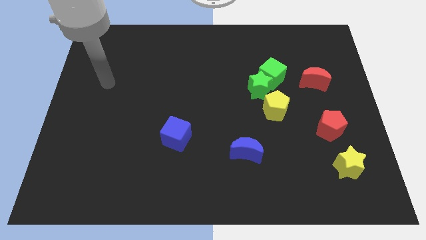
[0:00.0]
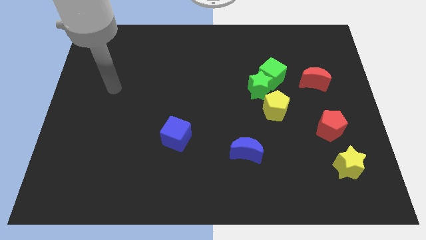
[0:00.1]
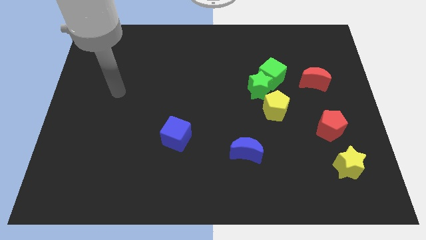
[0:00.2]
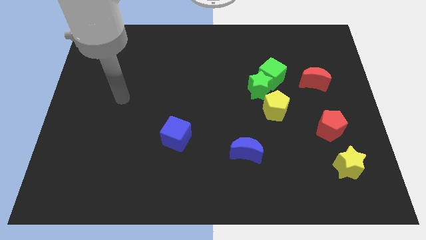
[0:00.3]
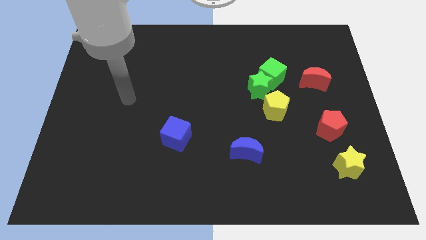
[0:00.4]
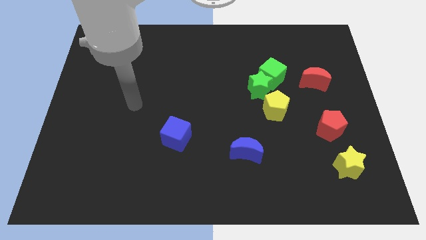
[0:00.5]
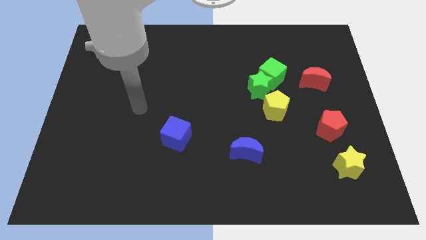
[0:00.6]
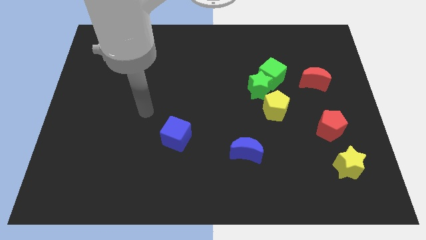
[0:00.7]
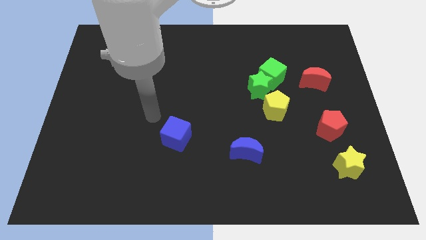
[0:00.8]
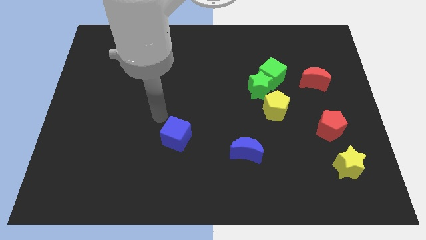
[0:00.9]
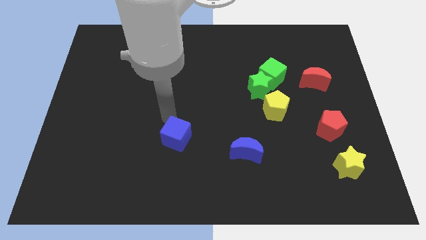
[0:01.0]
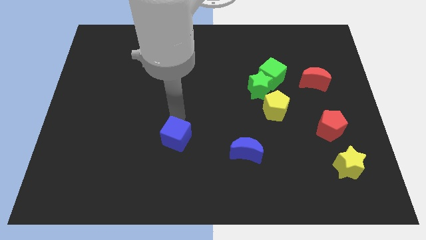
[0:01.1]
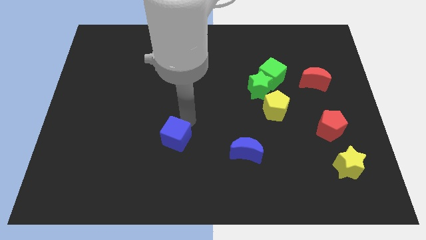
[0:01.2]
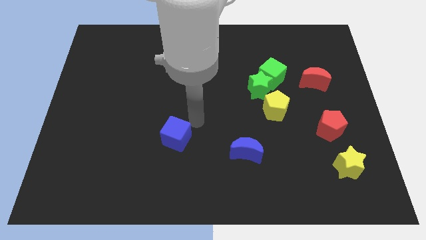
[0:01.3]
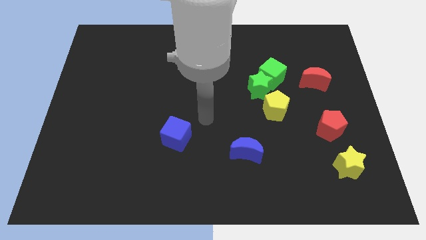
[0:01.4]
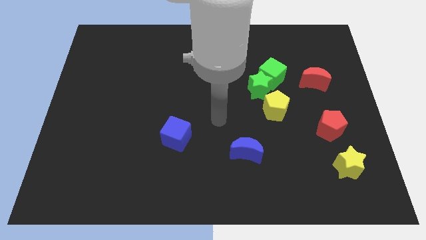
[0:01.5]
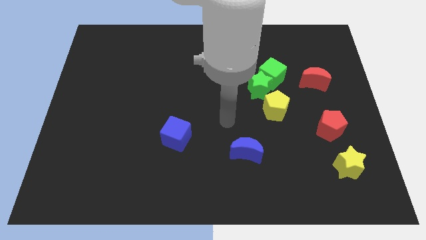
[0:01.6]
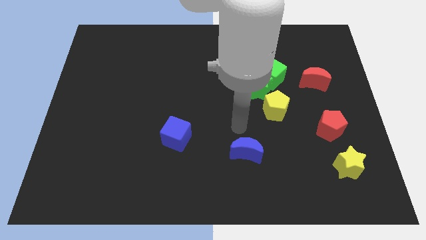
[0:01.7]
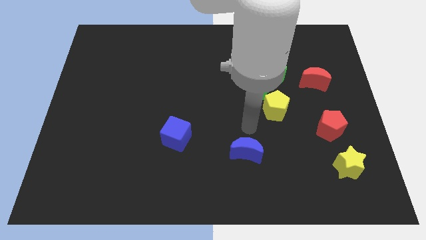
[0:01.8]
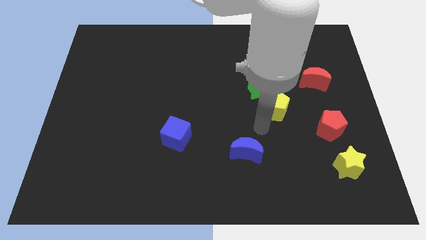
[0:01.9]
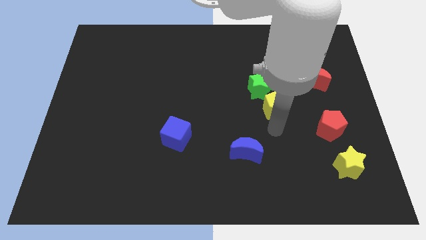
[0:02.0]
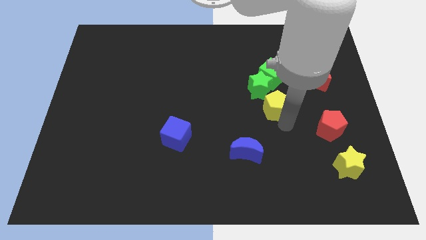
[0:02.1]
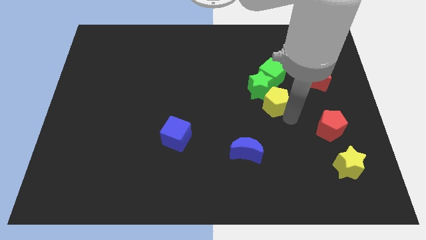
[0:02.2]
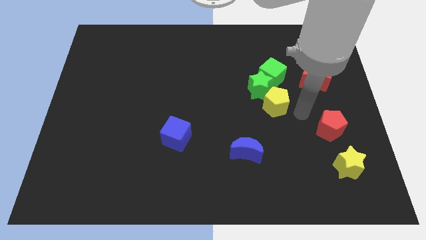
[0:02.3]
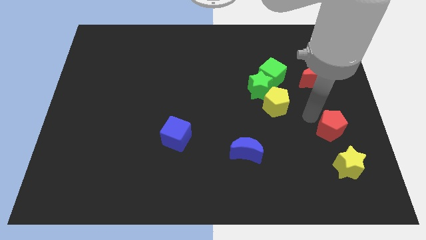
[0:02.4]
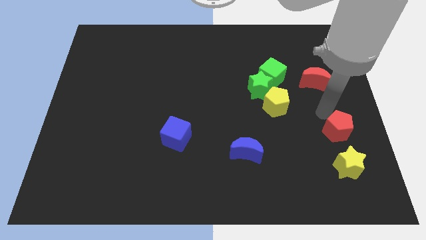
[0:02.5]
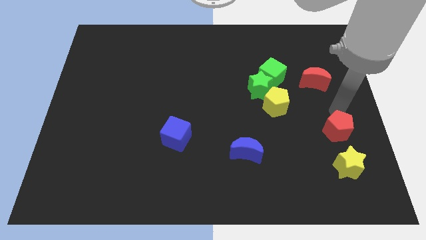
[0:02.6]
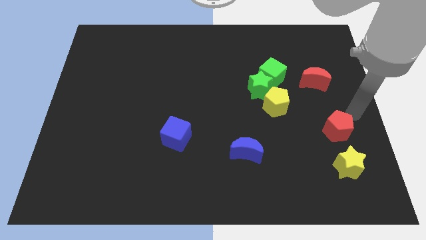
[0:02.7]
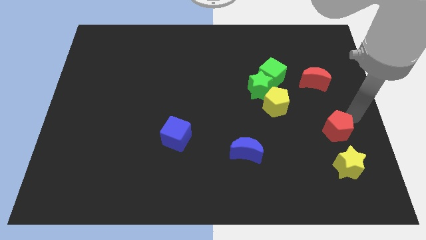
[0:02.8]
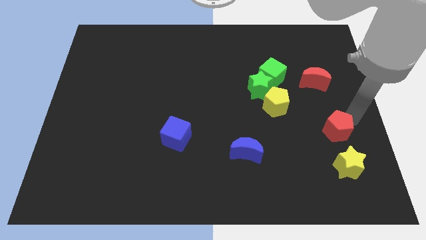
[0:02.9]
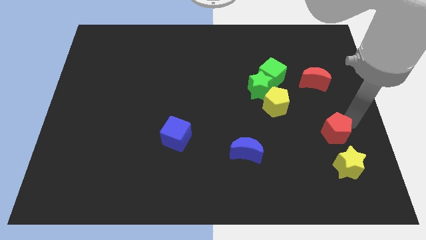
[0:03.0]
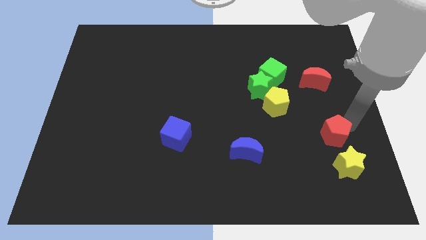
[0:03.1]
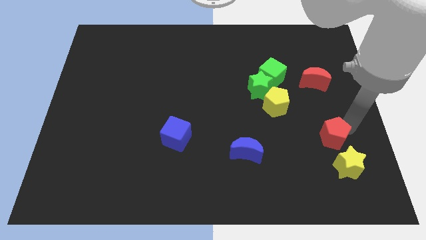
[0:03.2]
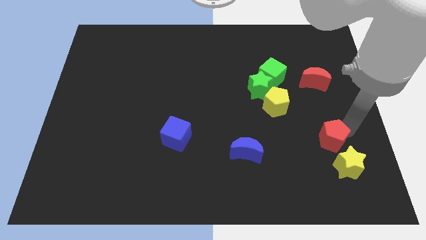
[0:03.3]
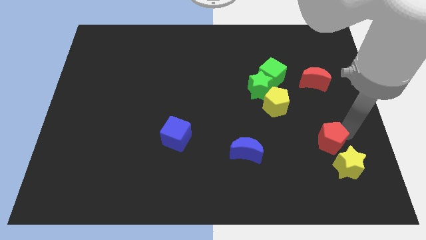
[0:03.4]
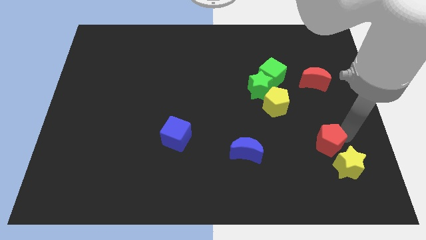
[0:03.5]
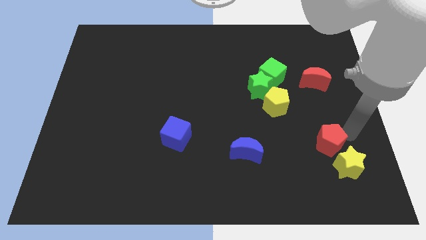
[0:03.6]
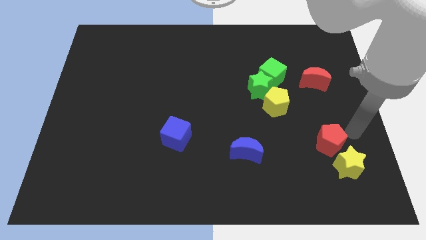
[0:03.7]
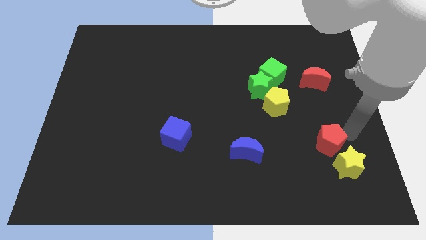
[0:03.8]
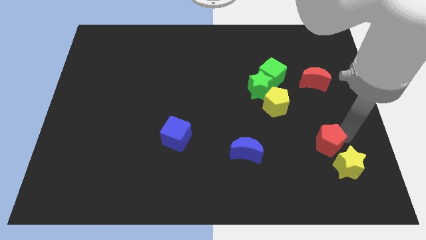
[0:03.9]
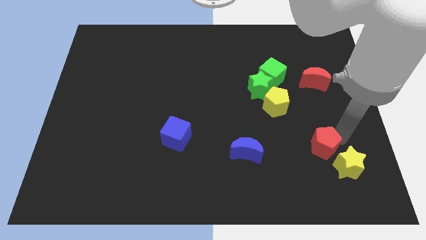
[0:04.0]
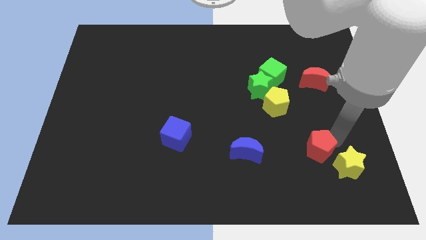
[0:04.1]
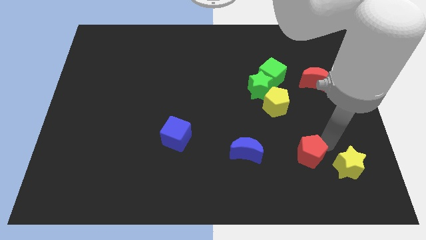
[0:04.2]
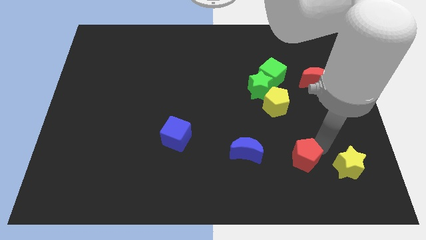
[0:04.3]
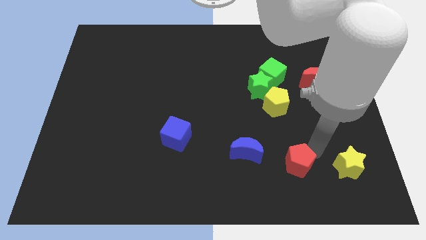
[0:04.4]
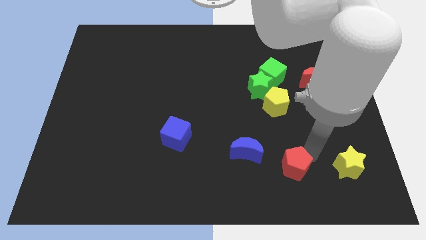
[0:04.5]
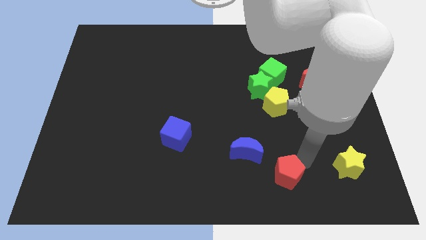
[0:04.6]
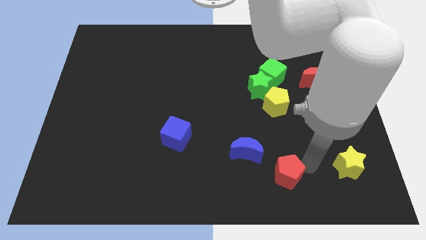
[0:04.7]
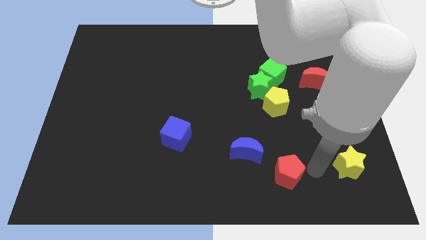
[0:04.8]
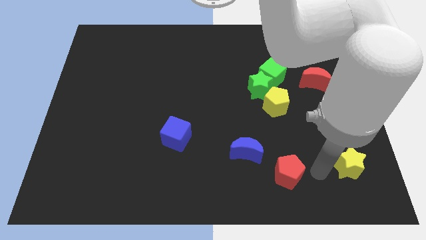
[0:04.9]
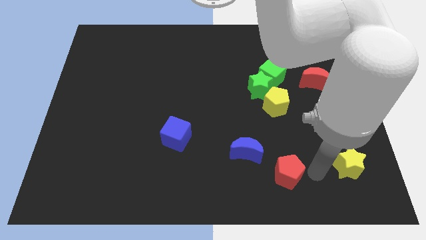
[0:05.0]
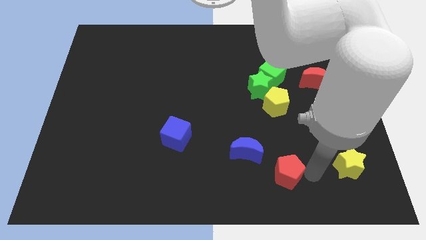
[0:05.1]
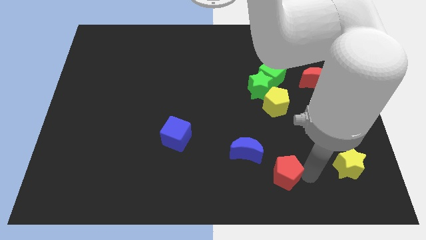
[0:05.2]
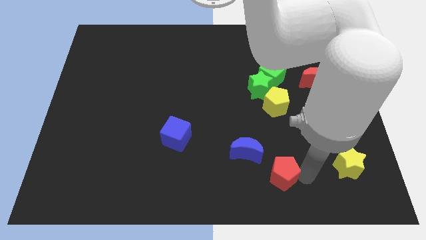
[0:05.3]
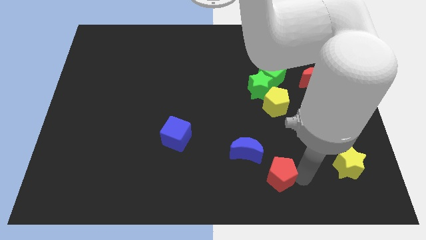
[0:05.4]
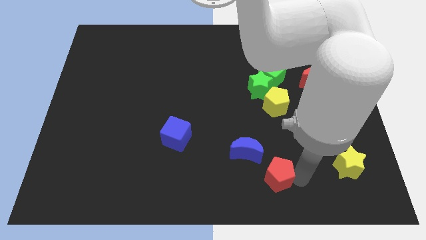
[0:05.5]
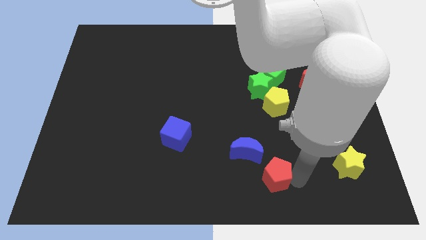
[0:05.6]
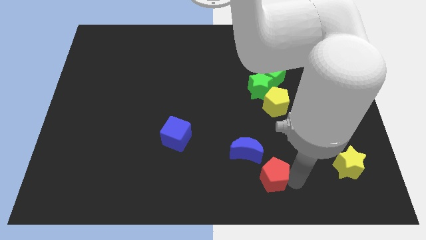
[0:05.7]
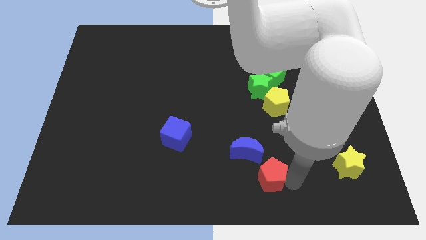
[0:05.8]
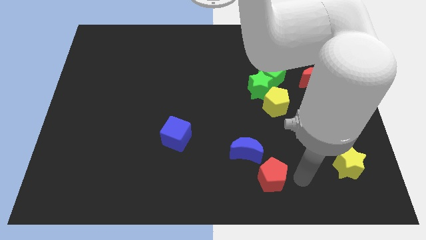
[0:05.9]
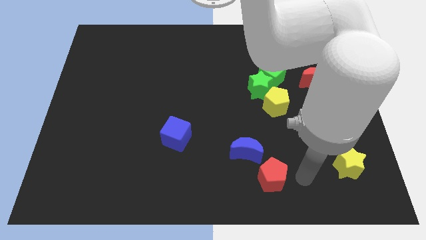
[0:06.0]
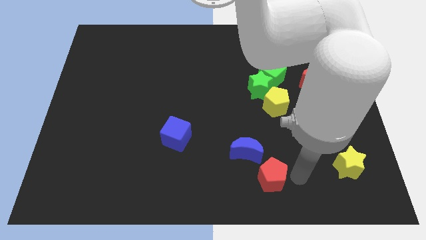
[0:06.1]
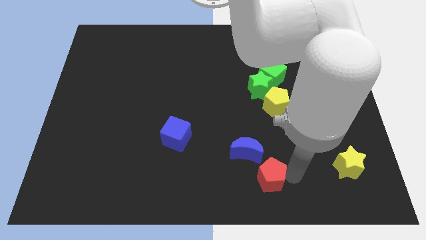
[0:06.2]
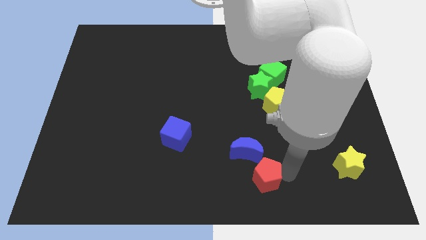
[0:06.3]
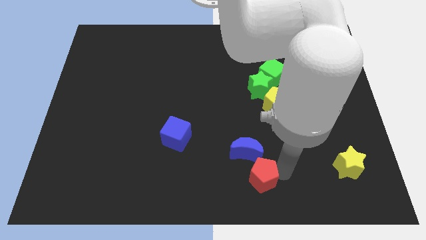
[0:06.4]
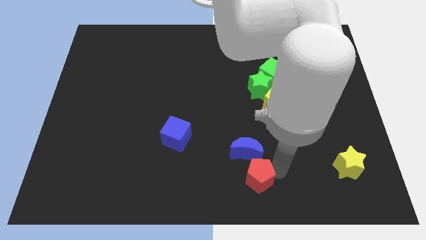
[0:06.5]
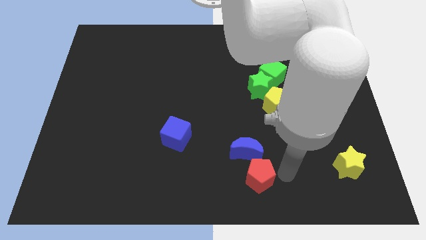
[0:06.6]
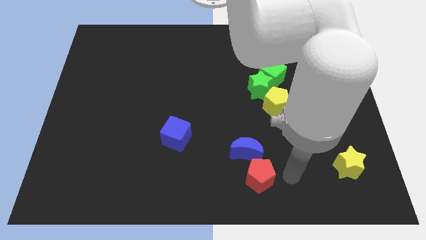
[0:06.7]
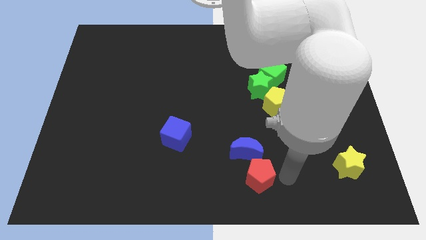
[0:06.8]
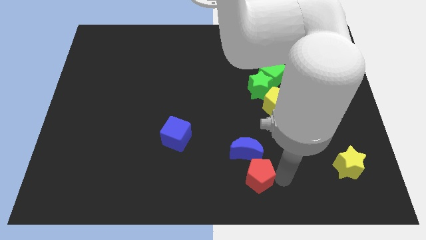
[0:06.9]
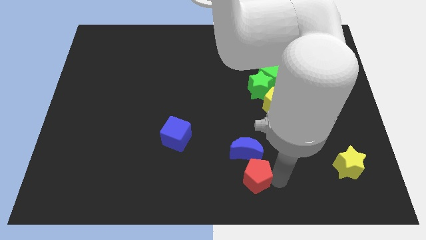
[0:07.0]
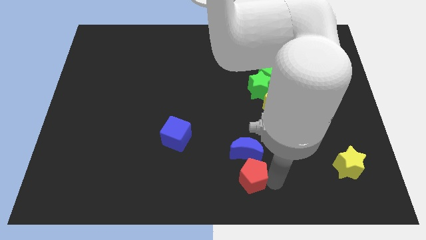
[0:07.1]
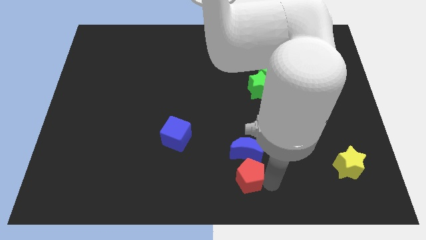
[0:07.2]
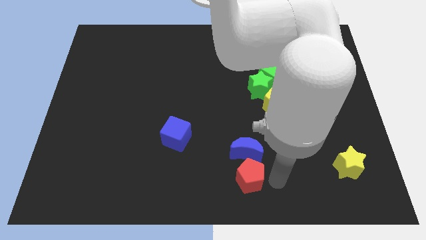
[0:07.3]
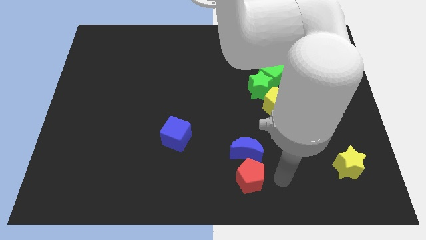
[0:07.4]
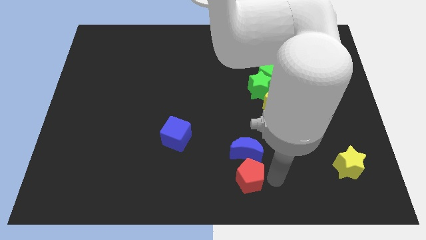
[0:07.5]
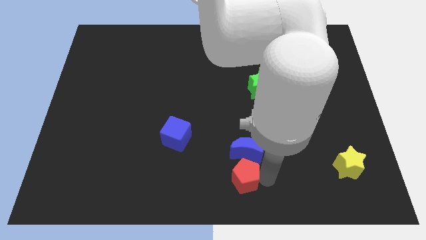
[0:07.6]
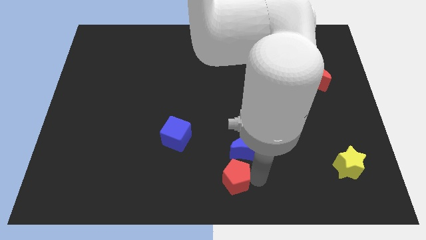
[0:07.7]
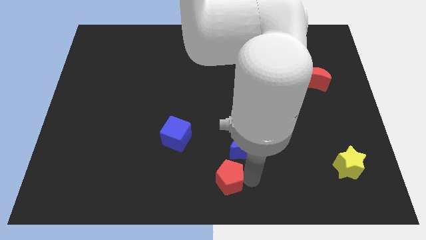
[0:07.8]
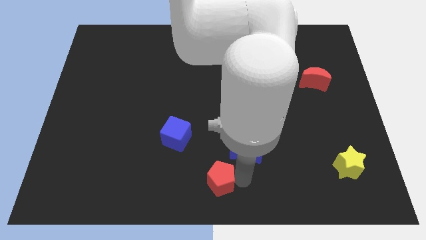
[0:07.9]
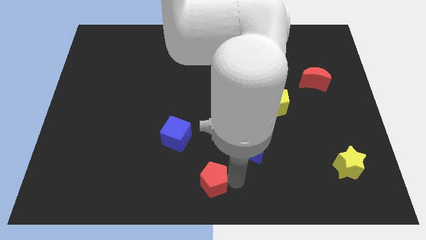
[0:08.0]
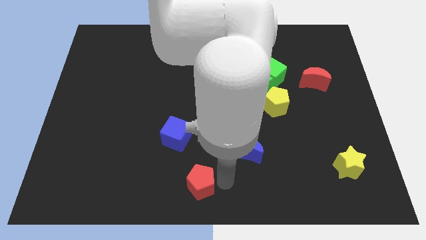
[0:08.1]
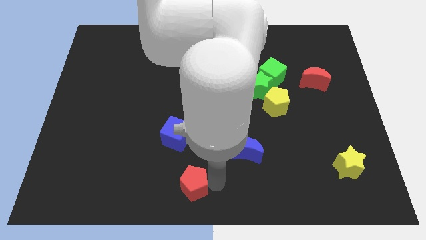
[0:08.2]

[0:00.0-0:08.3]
slide the red pentagon to the bottom side of the blue cube
